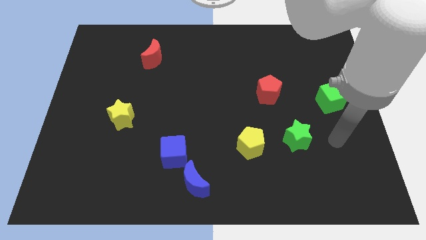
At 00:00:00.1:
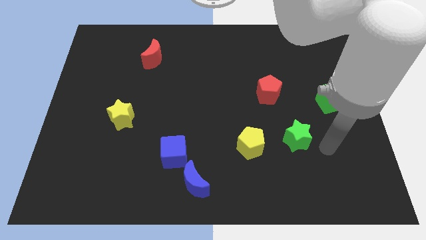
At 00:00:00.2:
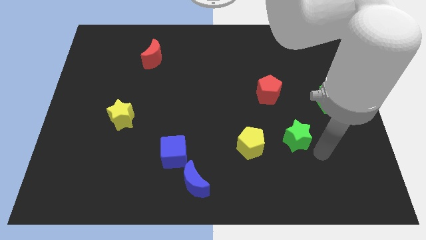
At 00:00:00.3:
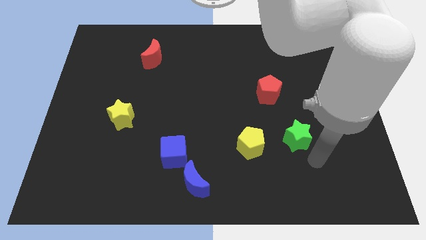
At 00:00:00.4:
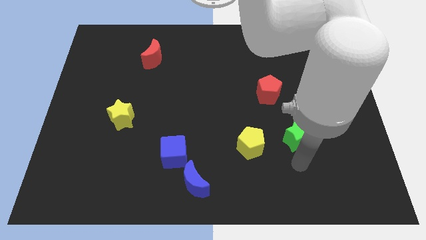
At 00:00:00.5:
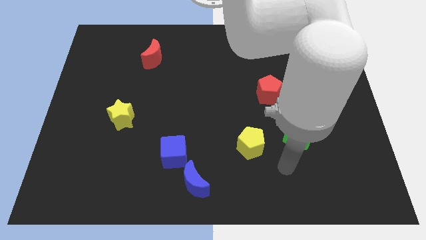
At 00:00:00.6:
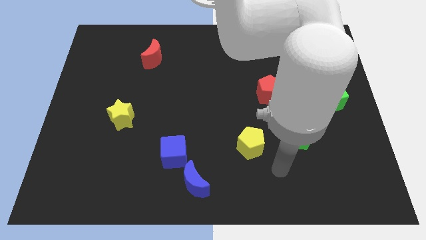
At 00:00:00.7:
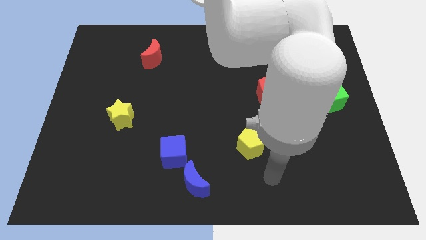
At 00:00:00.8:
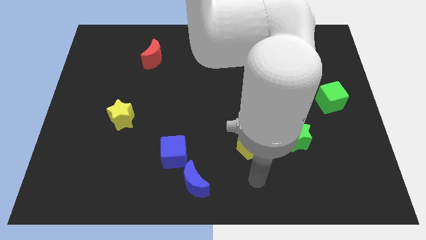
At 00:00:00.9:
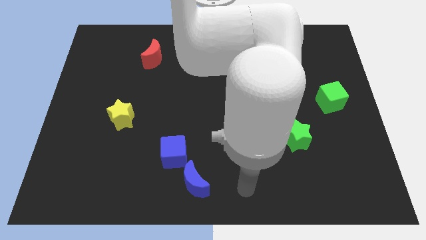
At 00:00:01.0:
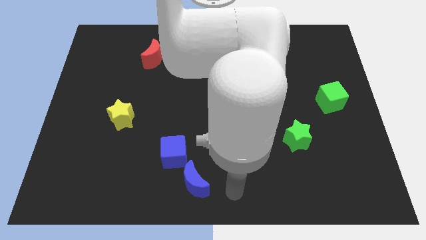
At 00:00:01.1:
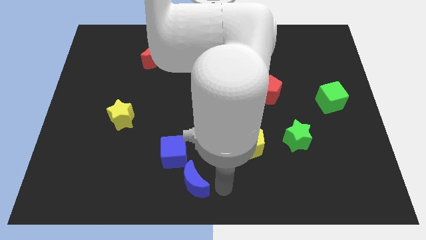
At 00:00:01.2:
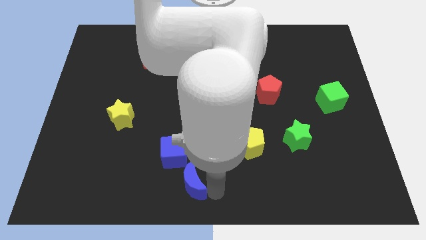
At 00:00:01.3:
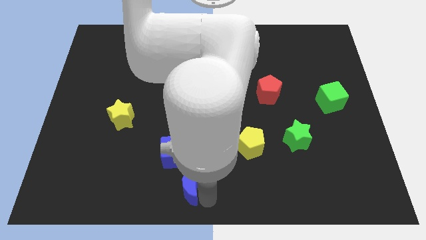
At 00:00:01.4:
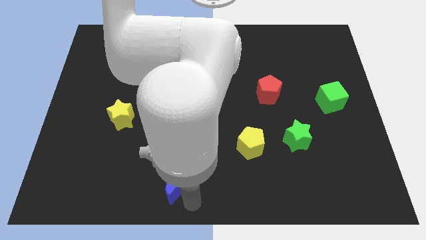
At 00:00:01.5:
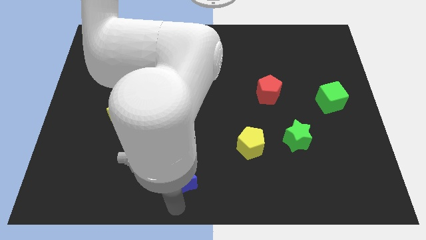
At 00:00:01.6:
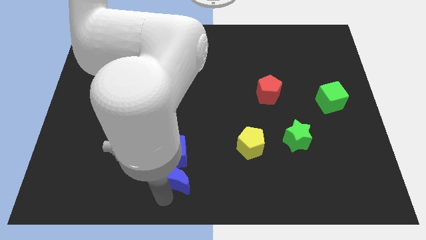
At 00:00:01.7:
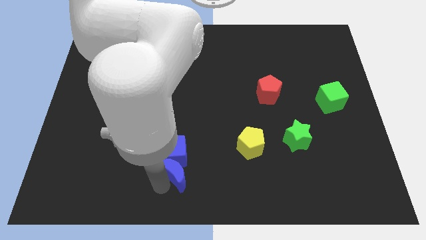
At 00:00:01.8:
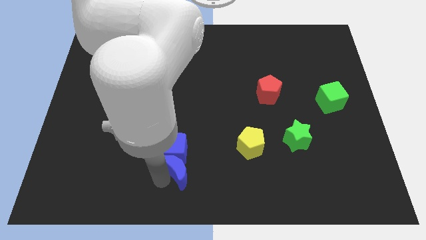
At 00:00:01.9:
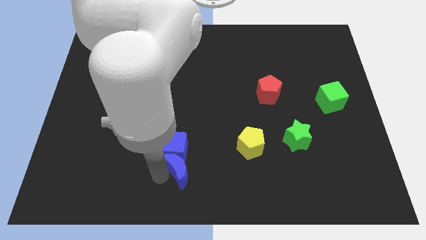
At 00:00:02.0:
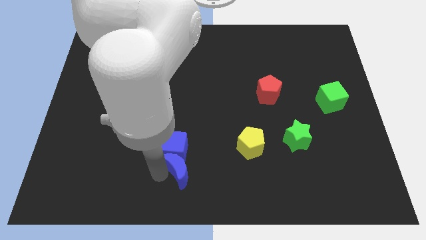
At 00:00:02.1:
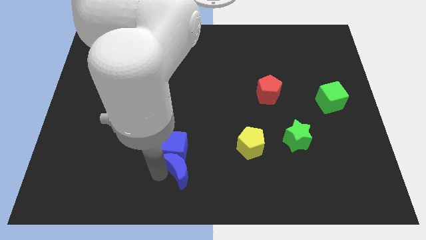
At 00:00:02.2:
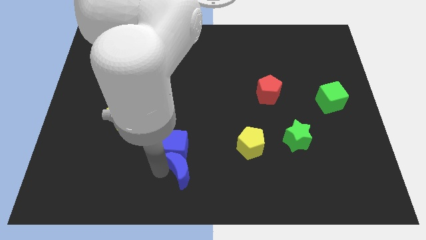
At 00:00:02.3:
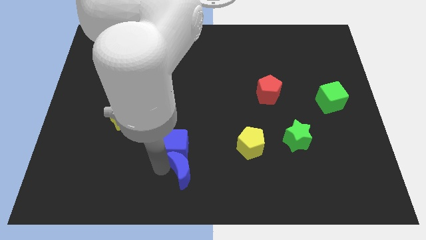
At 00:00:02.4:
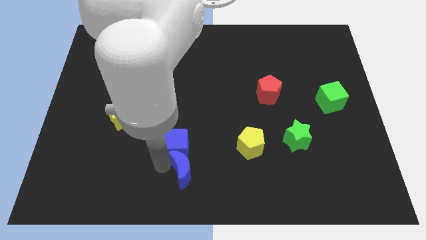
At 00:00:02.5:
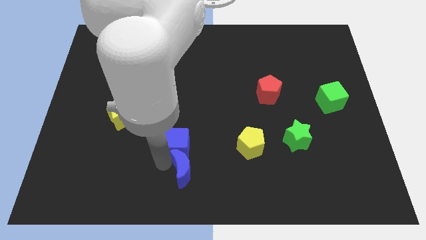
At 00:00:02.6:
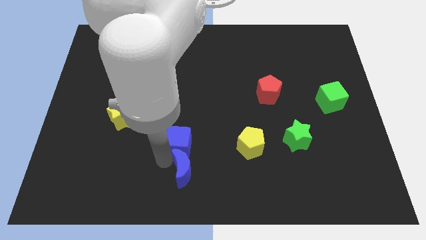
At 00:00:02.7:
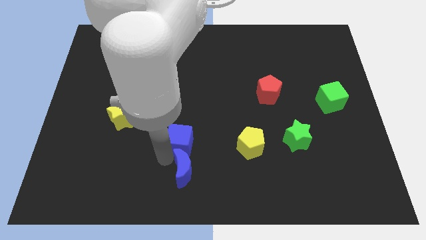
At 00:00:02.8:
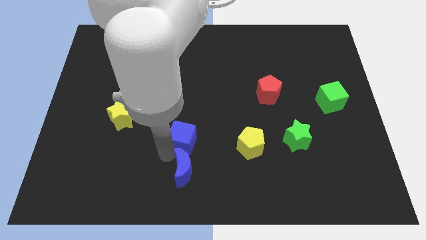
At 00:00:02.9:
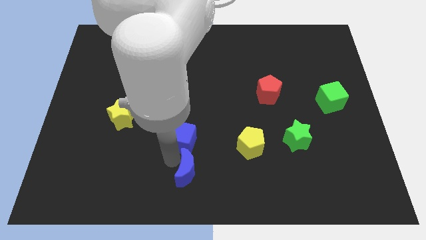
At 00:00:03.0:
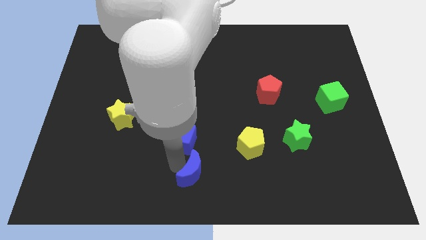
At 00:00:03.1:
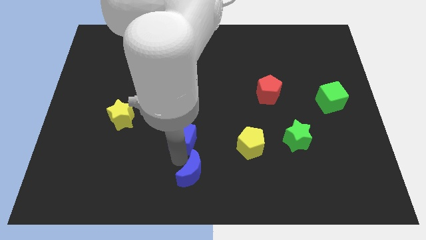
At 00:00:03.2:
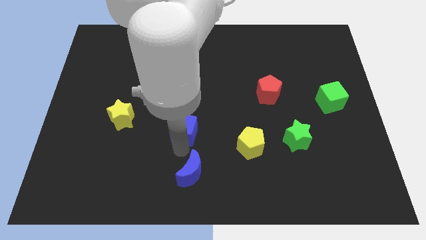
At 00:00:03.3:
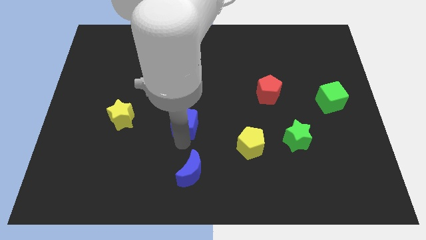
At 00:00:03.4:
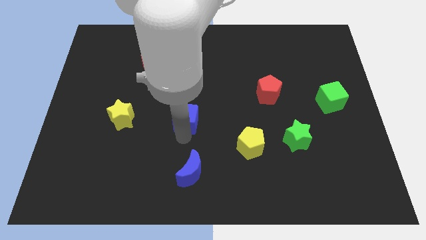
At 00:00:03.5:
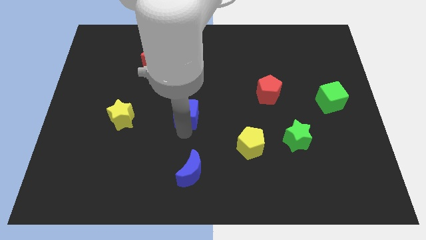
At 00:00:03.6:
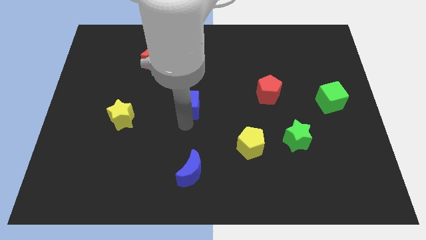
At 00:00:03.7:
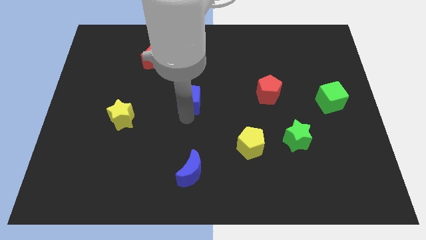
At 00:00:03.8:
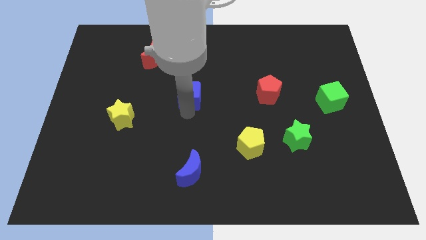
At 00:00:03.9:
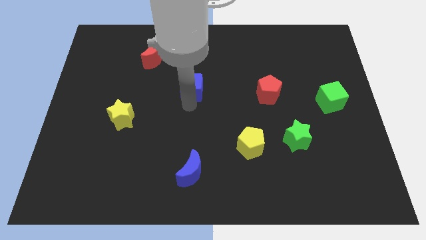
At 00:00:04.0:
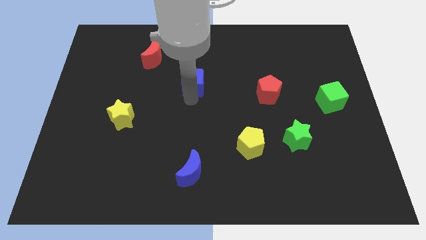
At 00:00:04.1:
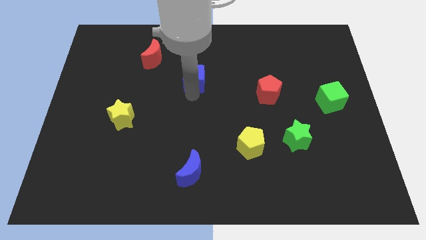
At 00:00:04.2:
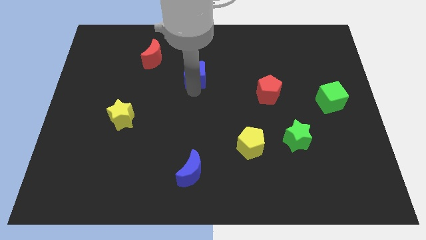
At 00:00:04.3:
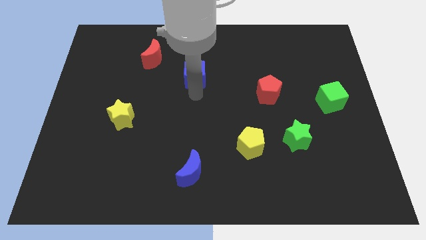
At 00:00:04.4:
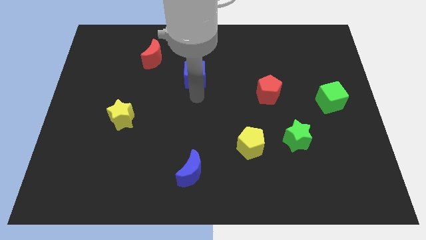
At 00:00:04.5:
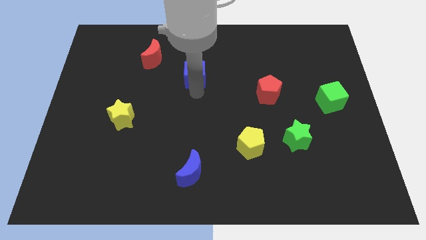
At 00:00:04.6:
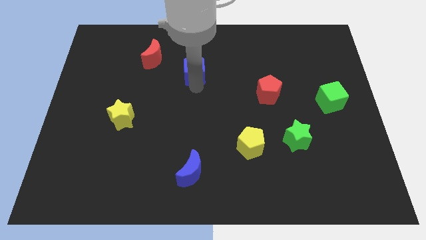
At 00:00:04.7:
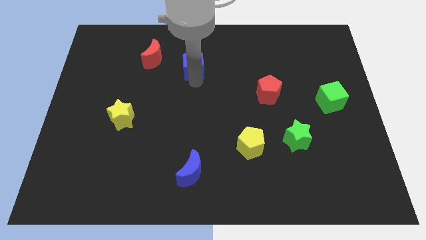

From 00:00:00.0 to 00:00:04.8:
push the blue cube to the right of the red moon

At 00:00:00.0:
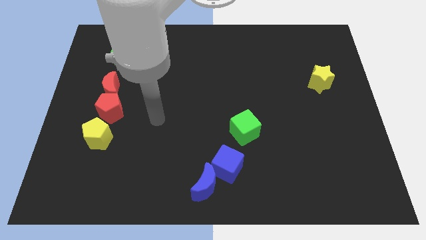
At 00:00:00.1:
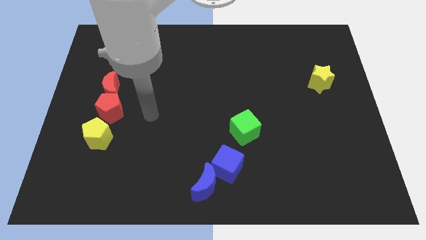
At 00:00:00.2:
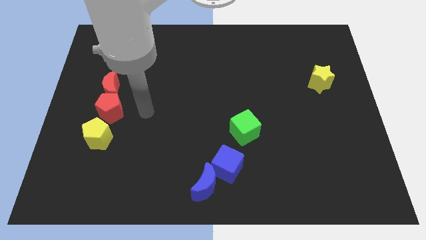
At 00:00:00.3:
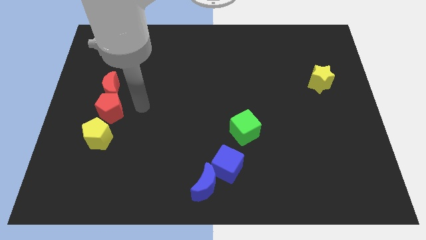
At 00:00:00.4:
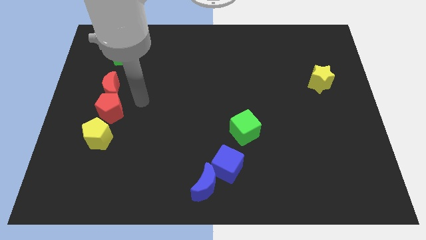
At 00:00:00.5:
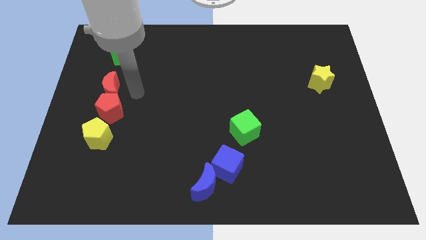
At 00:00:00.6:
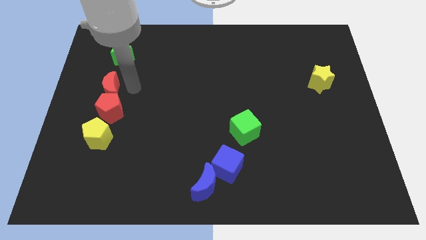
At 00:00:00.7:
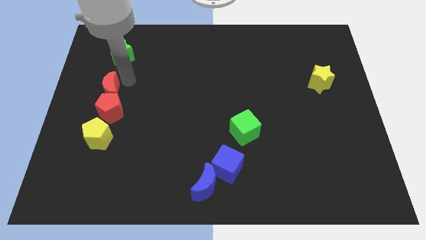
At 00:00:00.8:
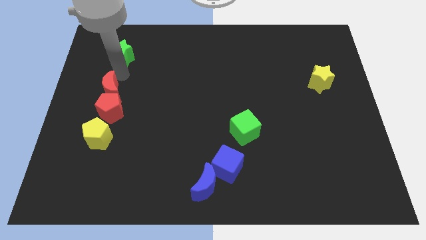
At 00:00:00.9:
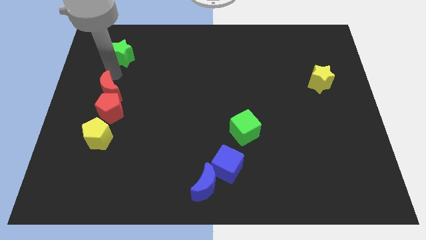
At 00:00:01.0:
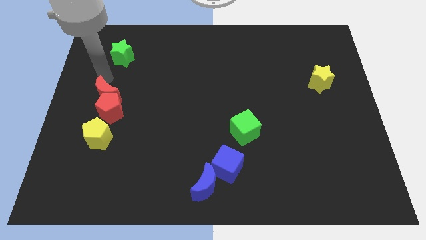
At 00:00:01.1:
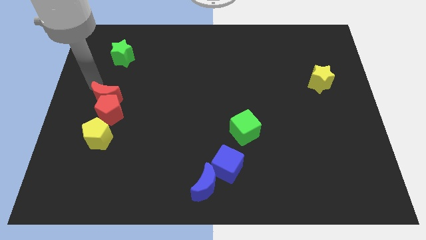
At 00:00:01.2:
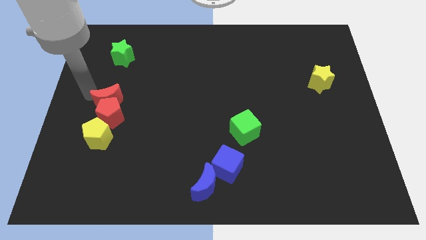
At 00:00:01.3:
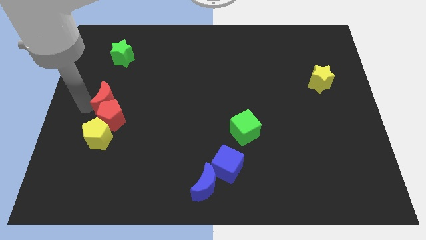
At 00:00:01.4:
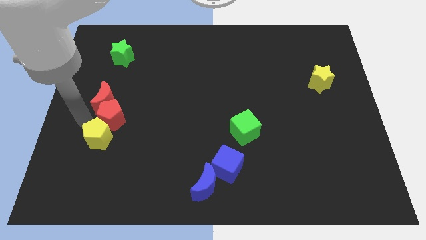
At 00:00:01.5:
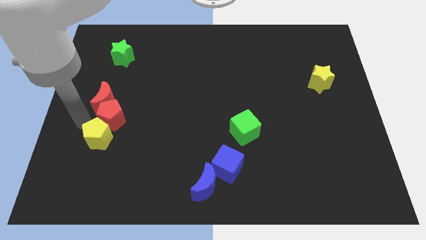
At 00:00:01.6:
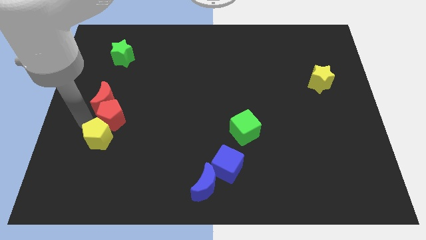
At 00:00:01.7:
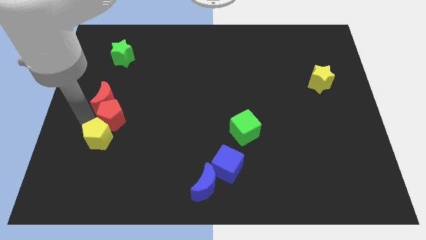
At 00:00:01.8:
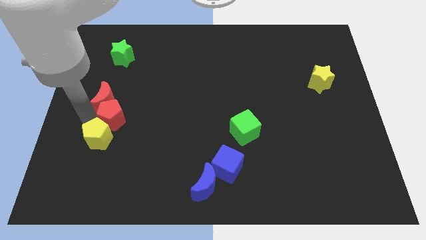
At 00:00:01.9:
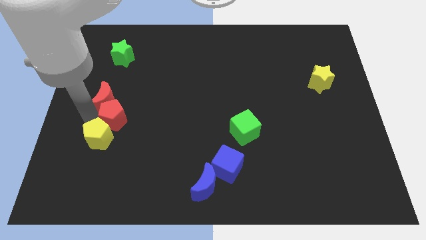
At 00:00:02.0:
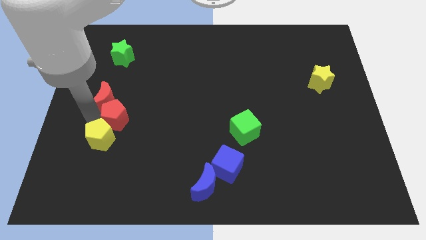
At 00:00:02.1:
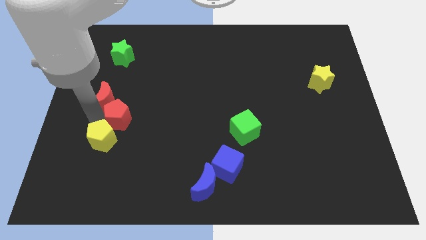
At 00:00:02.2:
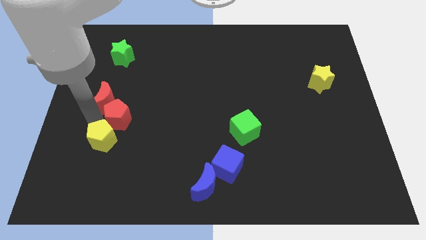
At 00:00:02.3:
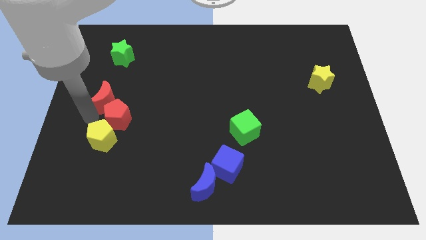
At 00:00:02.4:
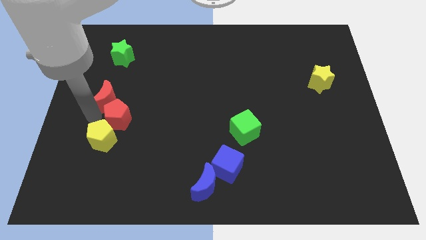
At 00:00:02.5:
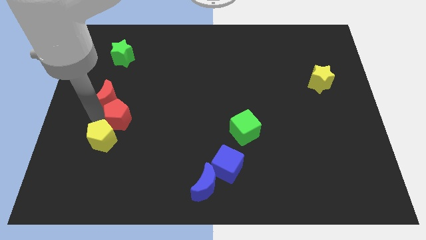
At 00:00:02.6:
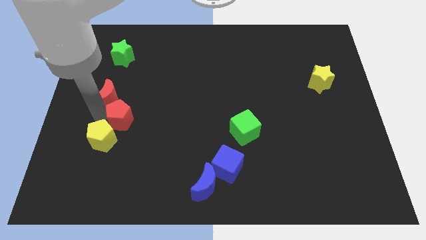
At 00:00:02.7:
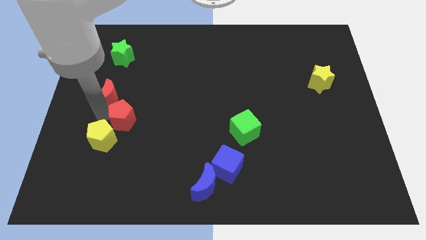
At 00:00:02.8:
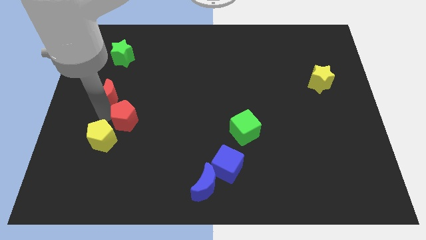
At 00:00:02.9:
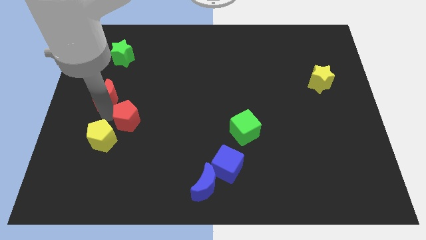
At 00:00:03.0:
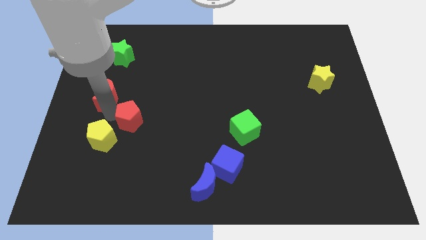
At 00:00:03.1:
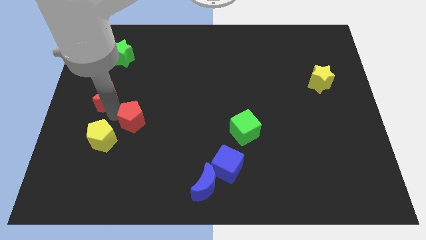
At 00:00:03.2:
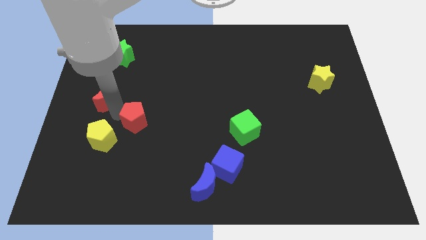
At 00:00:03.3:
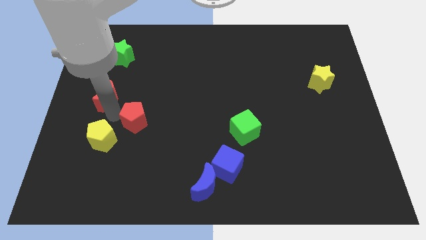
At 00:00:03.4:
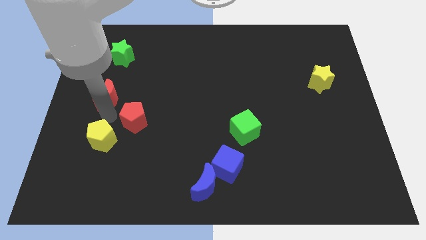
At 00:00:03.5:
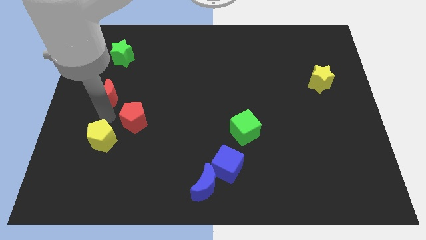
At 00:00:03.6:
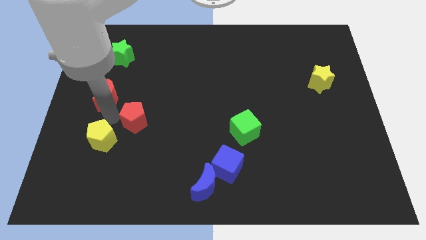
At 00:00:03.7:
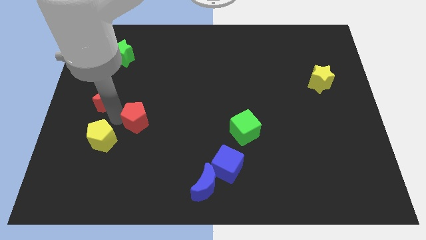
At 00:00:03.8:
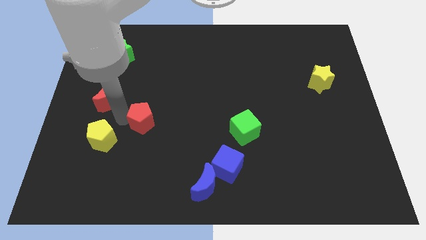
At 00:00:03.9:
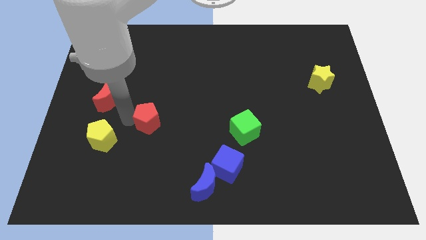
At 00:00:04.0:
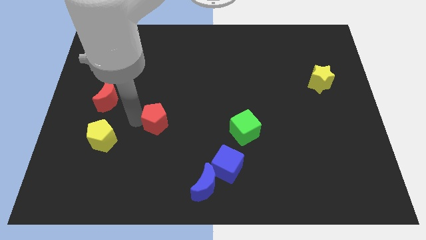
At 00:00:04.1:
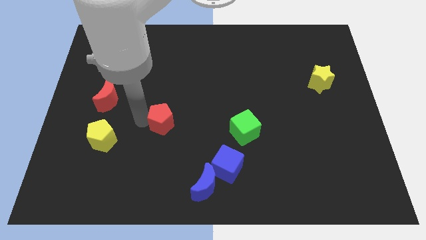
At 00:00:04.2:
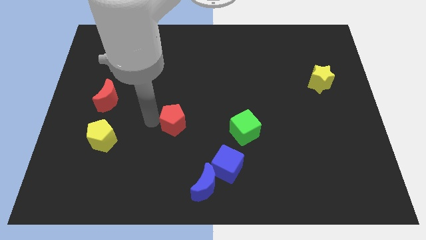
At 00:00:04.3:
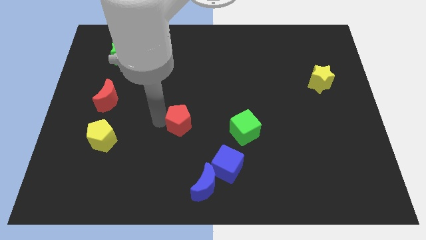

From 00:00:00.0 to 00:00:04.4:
put the red pentagon to the left side of the green cube
